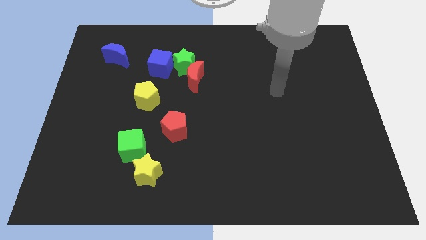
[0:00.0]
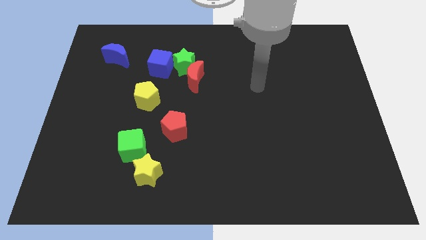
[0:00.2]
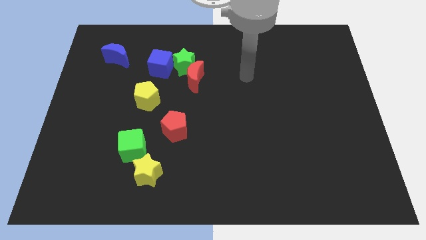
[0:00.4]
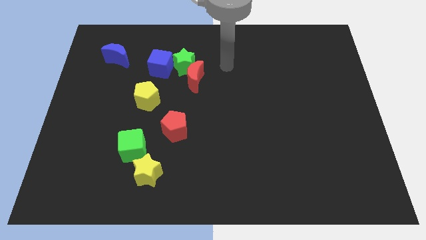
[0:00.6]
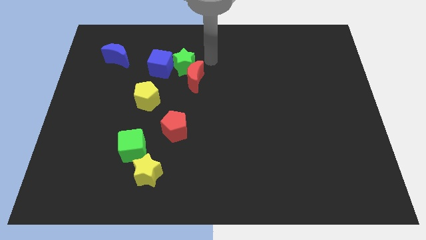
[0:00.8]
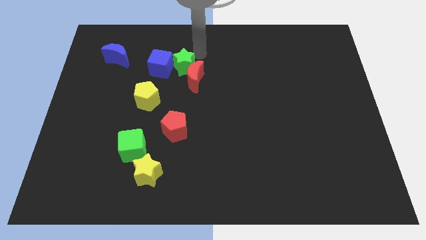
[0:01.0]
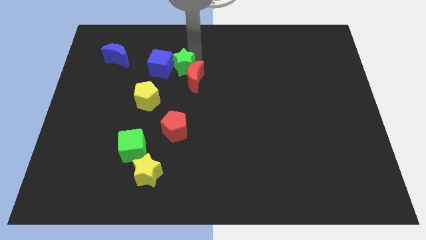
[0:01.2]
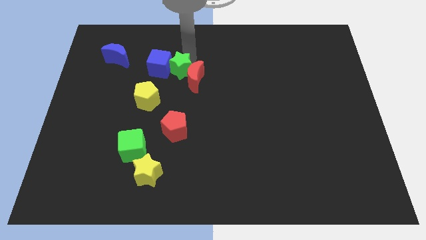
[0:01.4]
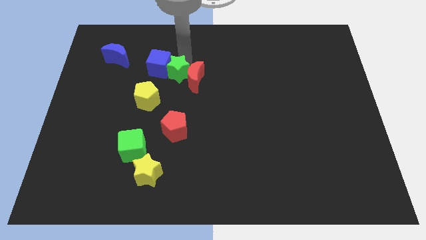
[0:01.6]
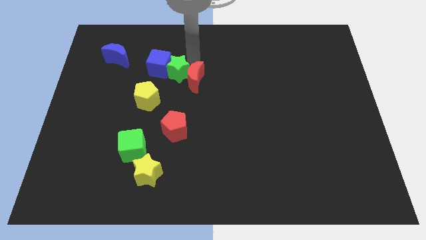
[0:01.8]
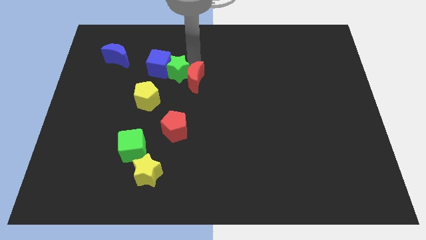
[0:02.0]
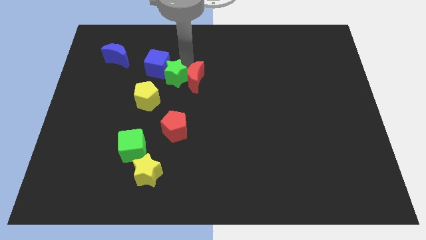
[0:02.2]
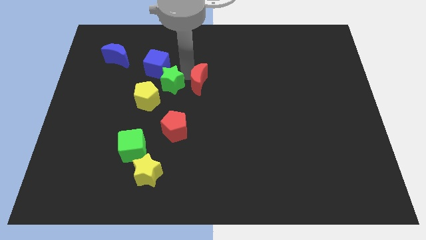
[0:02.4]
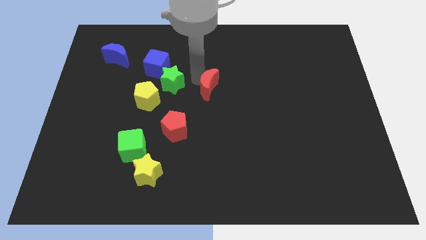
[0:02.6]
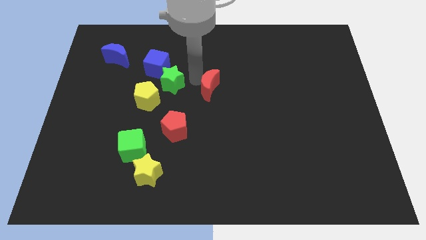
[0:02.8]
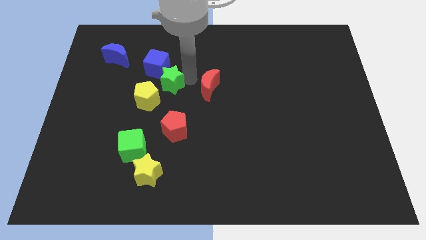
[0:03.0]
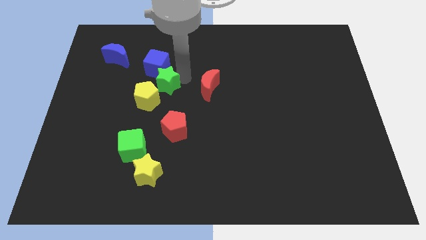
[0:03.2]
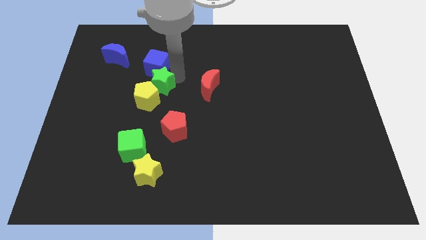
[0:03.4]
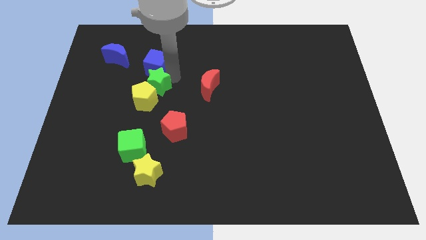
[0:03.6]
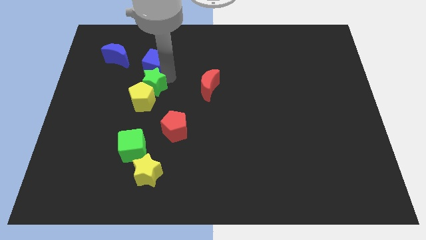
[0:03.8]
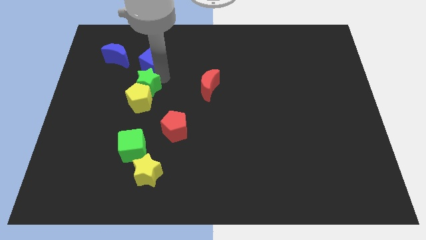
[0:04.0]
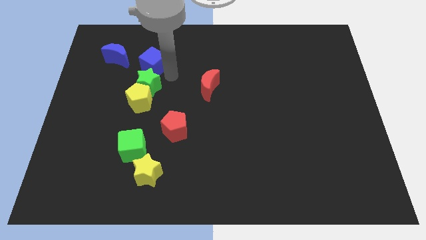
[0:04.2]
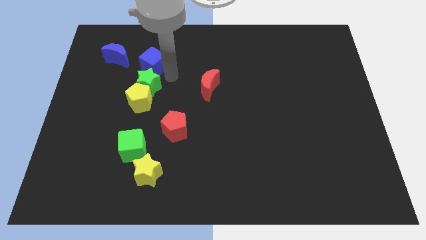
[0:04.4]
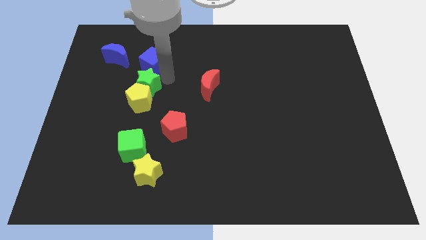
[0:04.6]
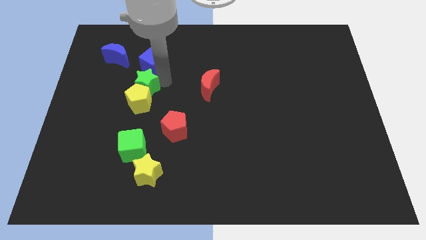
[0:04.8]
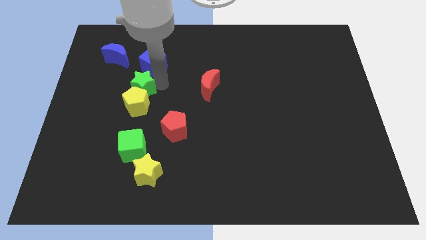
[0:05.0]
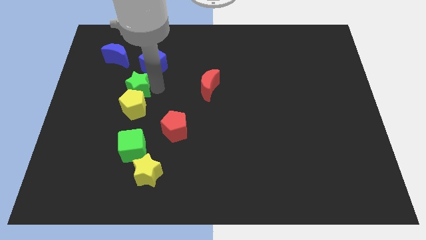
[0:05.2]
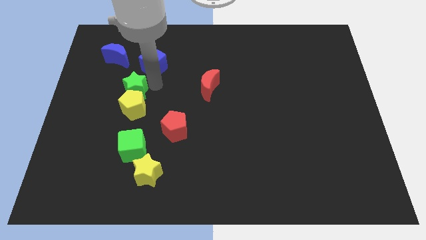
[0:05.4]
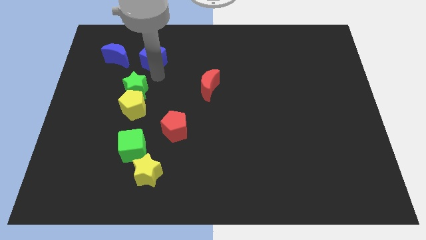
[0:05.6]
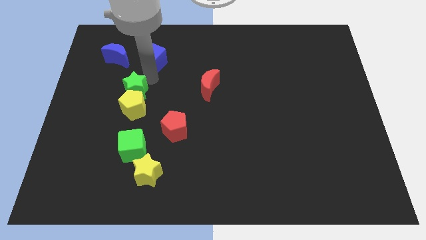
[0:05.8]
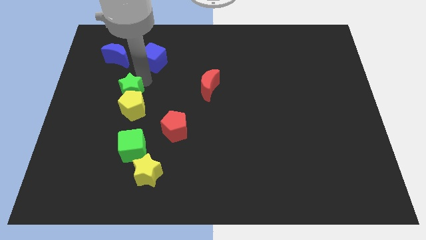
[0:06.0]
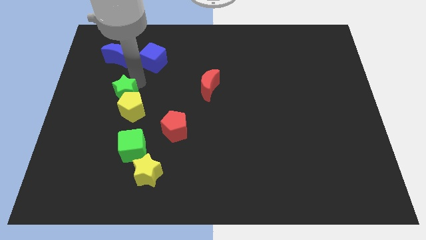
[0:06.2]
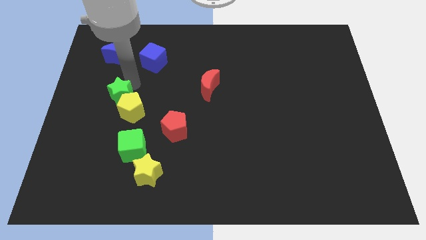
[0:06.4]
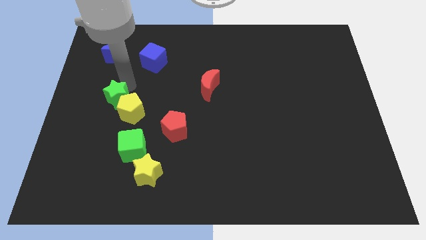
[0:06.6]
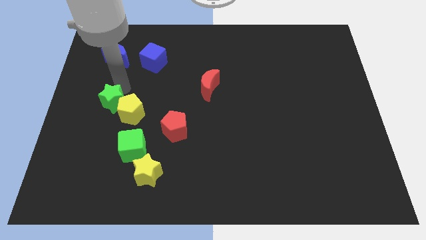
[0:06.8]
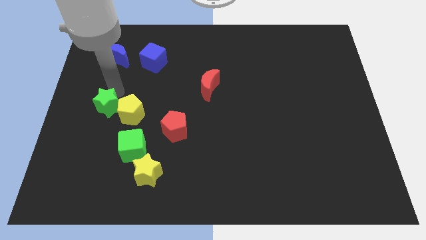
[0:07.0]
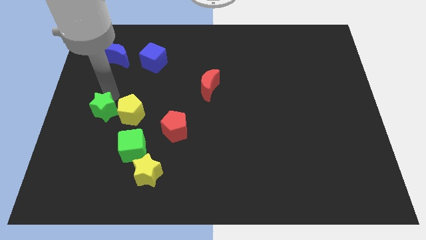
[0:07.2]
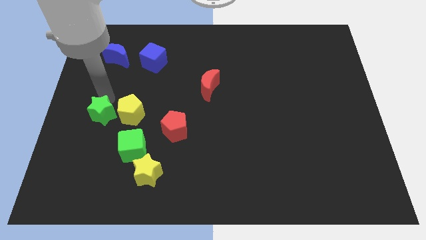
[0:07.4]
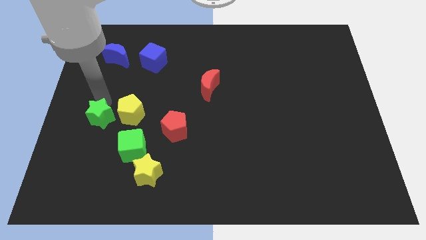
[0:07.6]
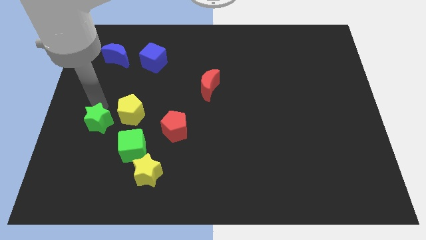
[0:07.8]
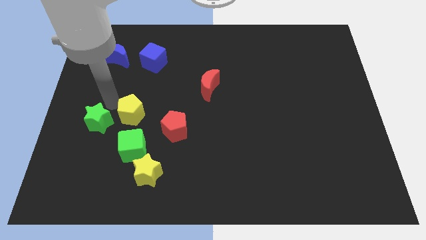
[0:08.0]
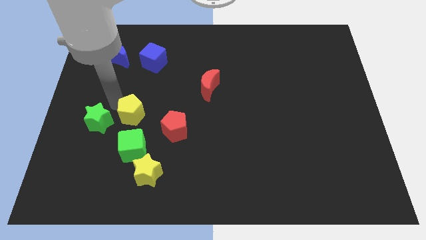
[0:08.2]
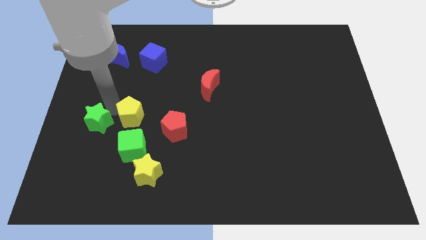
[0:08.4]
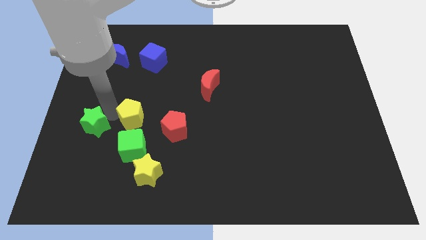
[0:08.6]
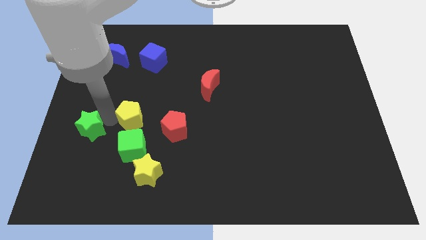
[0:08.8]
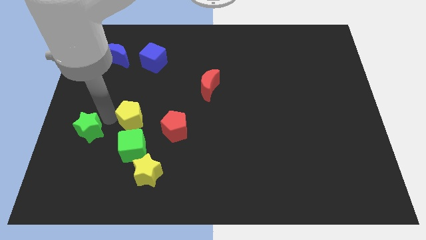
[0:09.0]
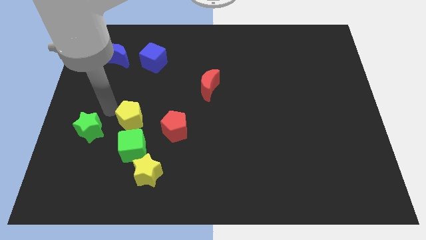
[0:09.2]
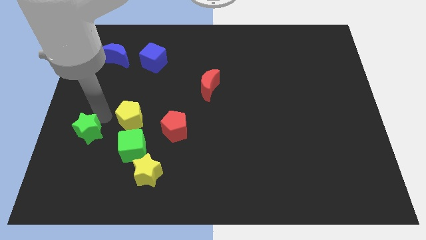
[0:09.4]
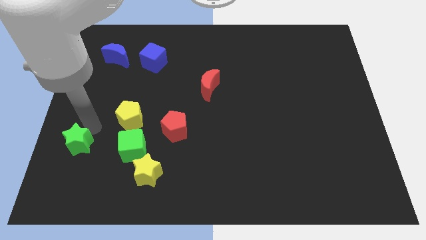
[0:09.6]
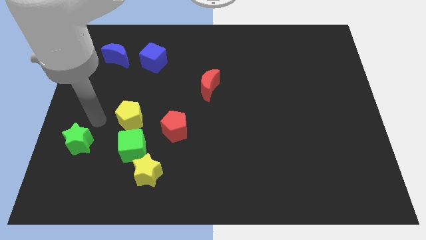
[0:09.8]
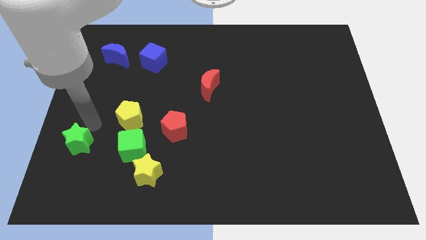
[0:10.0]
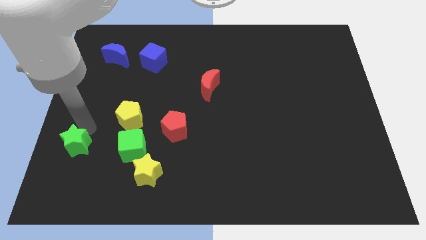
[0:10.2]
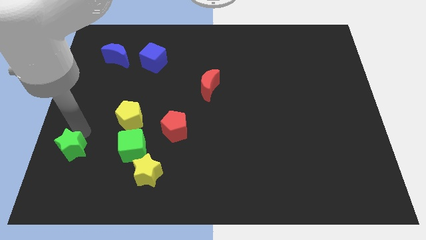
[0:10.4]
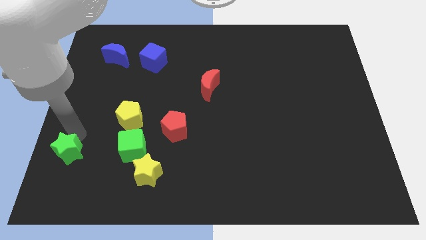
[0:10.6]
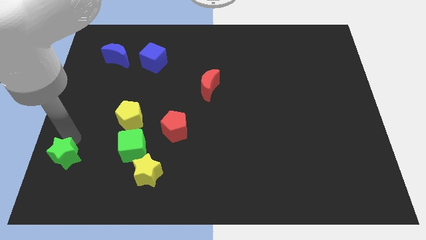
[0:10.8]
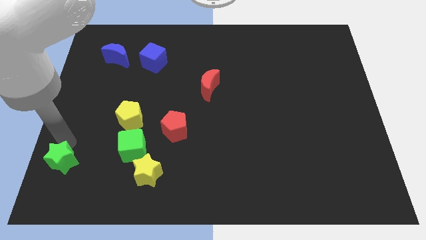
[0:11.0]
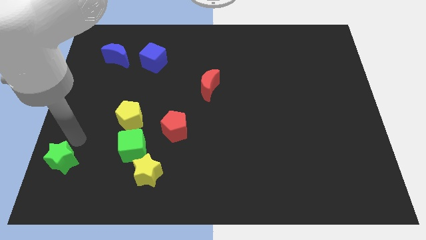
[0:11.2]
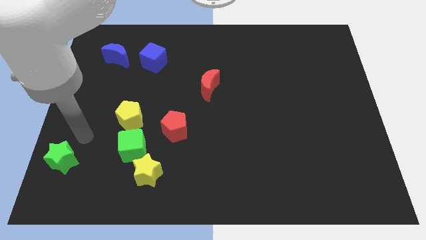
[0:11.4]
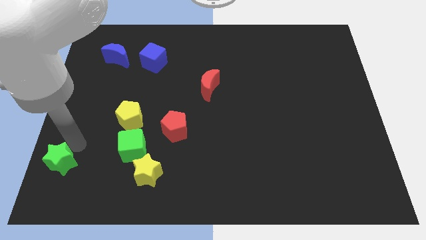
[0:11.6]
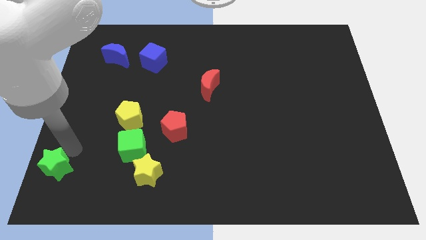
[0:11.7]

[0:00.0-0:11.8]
slide the green star to the bottom left

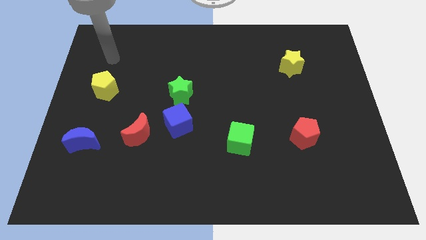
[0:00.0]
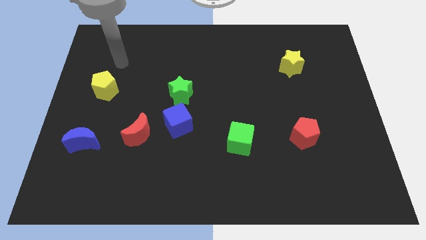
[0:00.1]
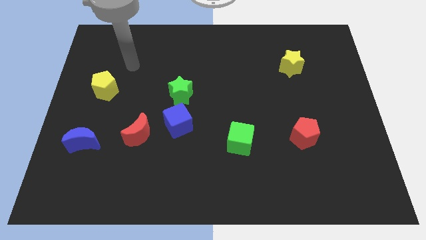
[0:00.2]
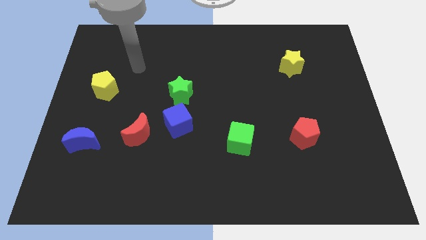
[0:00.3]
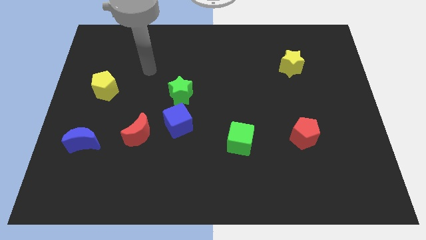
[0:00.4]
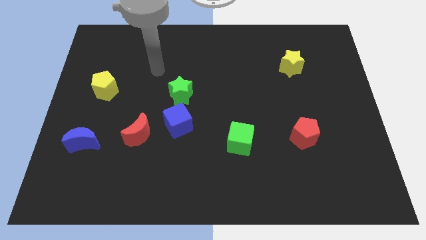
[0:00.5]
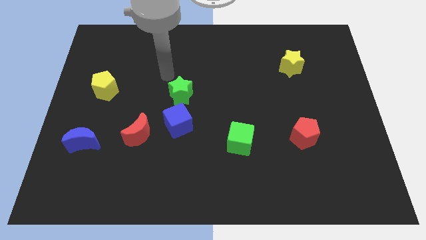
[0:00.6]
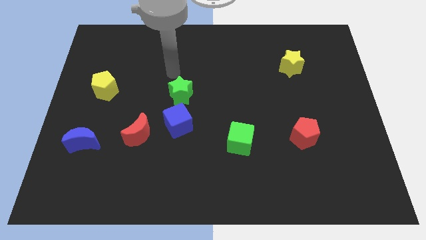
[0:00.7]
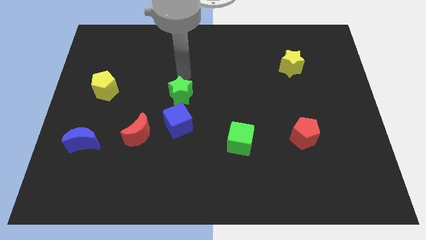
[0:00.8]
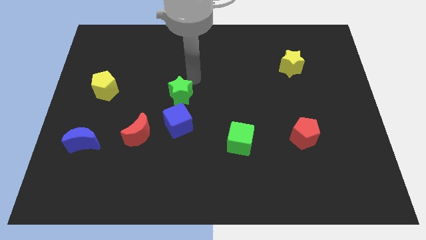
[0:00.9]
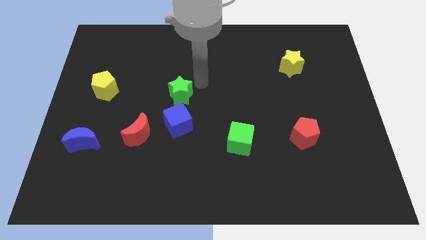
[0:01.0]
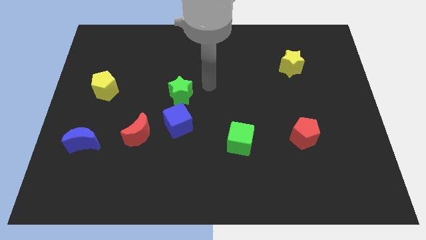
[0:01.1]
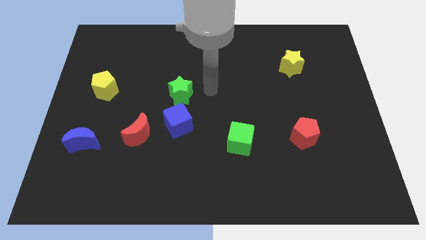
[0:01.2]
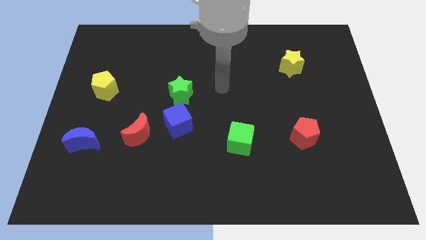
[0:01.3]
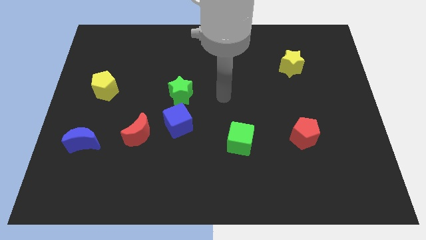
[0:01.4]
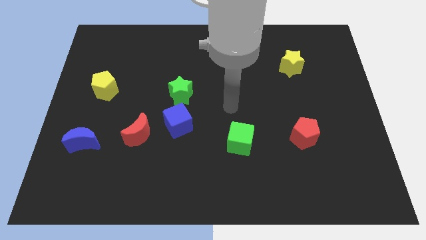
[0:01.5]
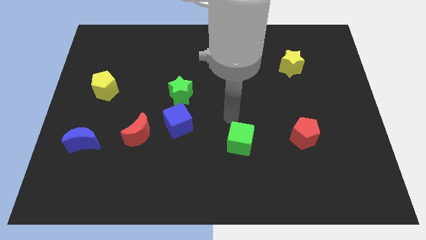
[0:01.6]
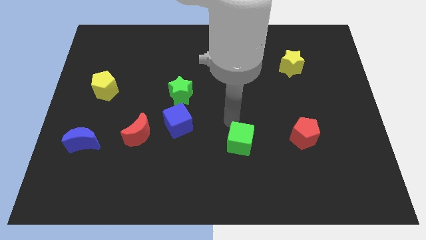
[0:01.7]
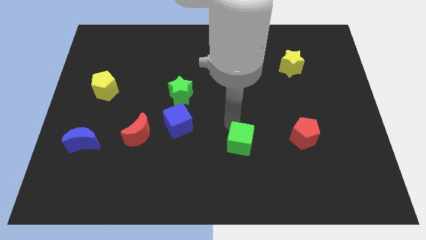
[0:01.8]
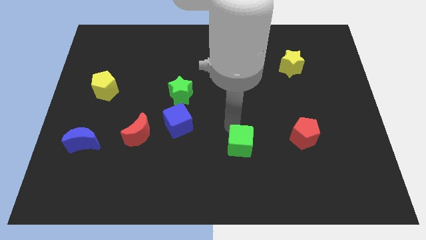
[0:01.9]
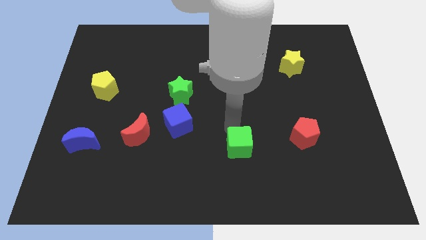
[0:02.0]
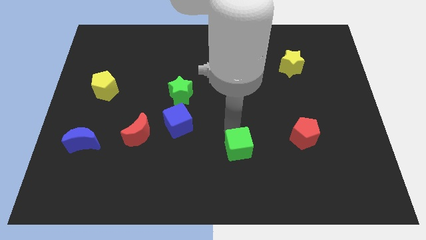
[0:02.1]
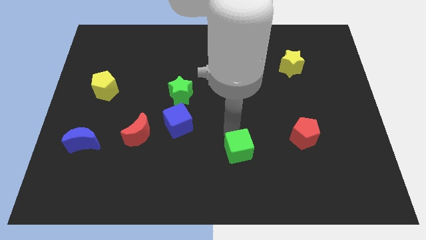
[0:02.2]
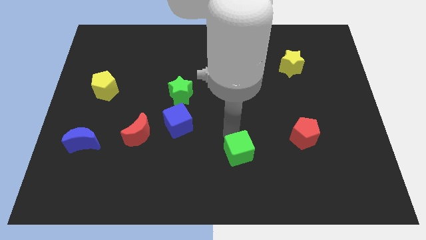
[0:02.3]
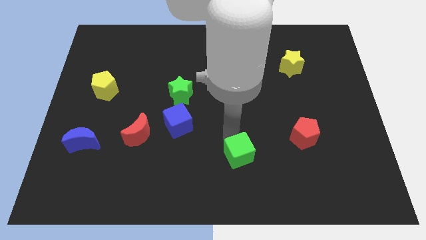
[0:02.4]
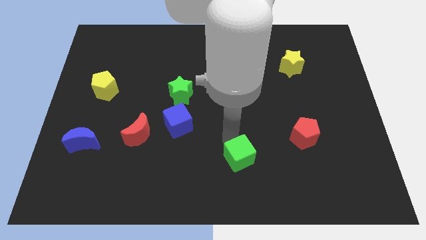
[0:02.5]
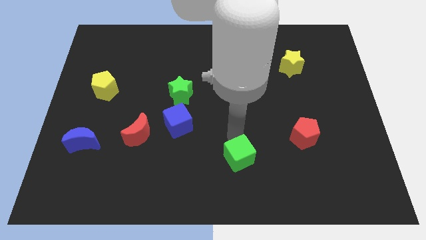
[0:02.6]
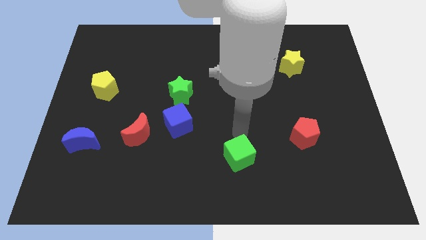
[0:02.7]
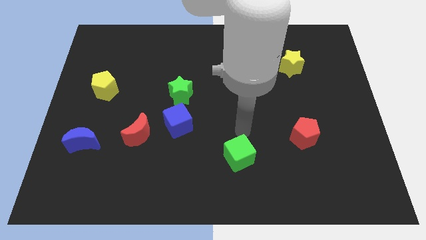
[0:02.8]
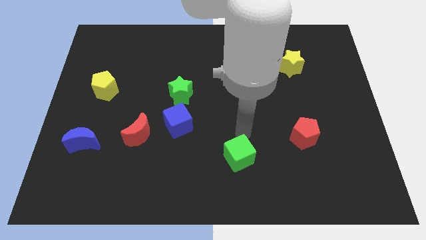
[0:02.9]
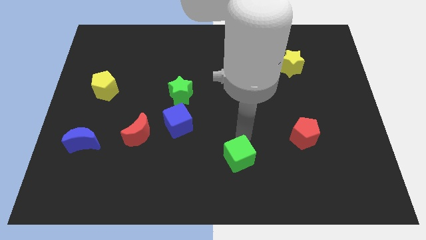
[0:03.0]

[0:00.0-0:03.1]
slide the green cube to the bottom
